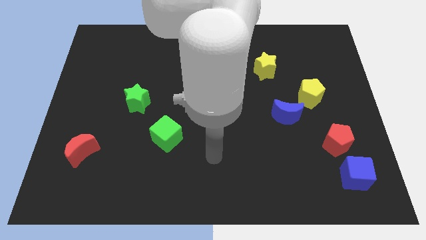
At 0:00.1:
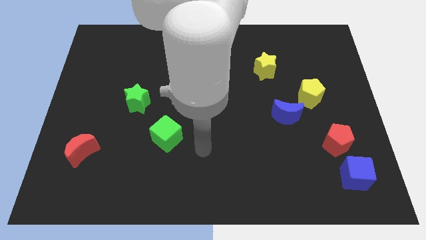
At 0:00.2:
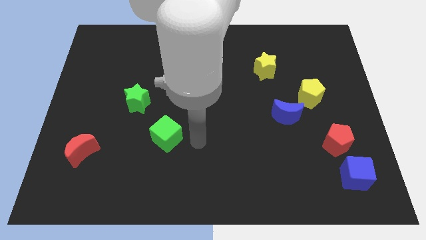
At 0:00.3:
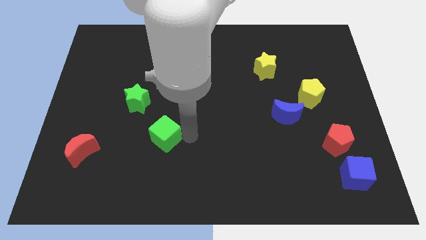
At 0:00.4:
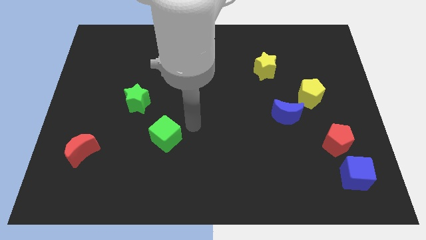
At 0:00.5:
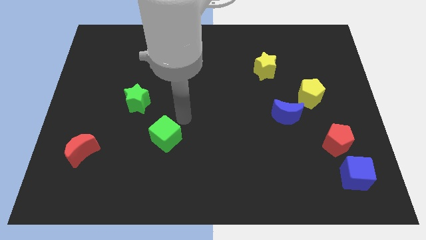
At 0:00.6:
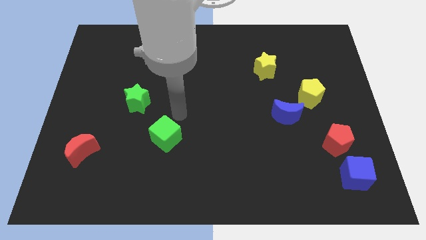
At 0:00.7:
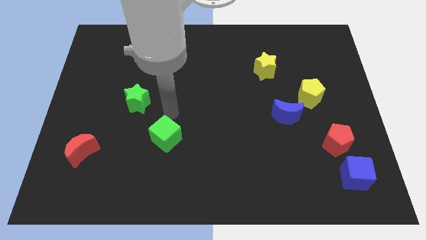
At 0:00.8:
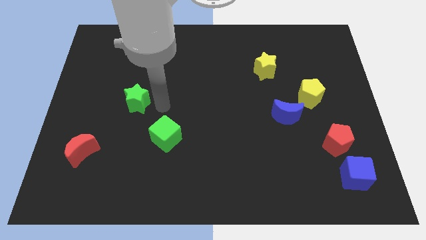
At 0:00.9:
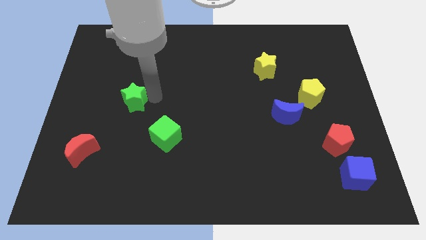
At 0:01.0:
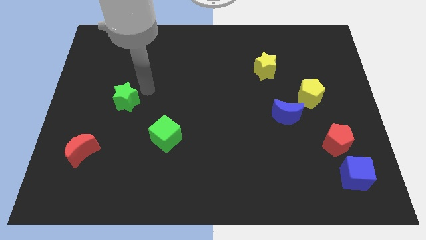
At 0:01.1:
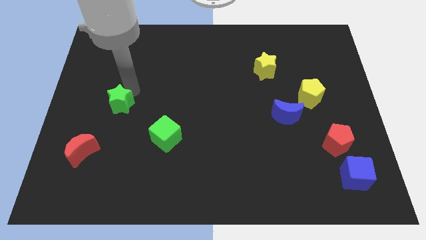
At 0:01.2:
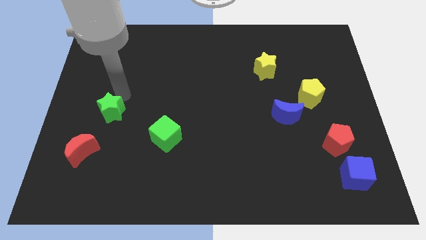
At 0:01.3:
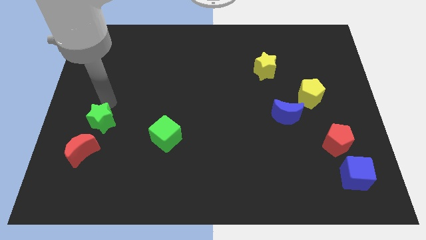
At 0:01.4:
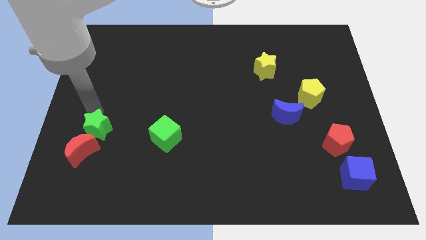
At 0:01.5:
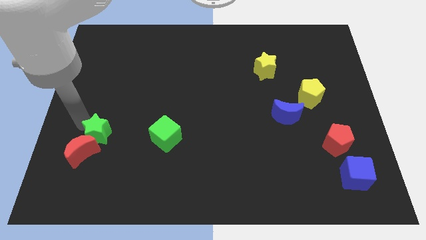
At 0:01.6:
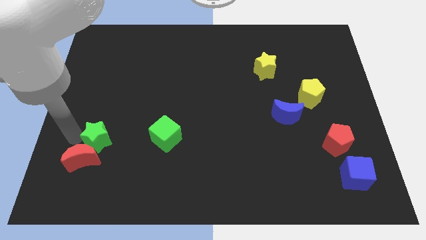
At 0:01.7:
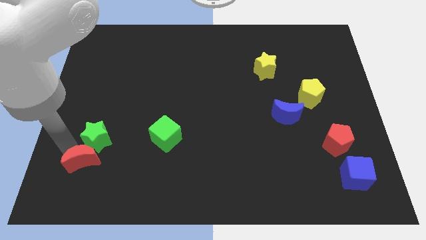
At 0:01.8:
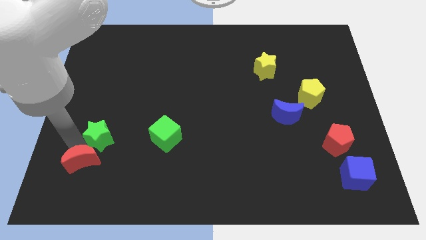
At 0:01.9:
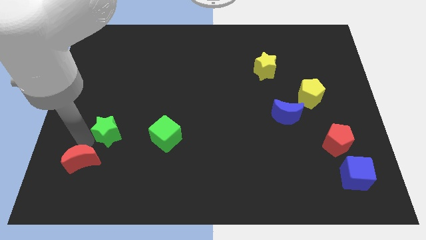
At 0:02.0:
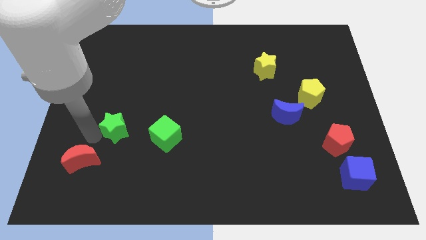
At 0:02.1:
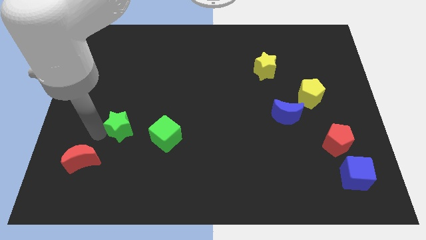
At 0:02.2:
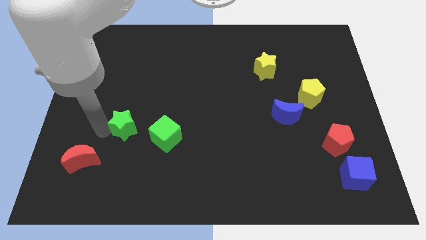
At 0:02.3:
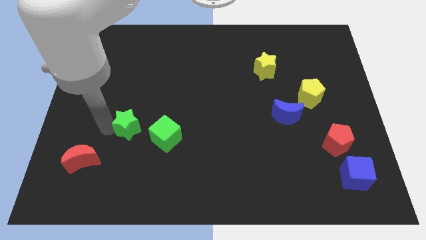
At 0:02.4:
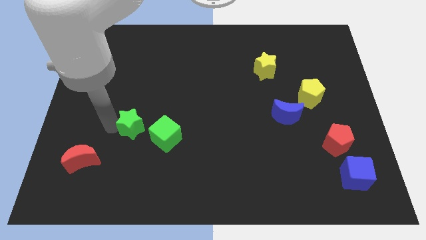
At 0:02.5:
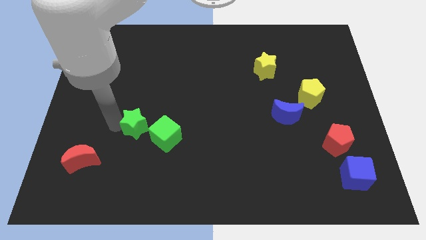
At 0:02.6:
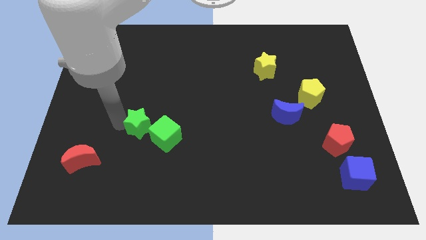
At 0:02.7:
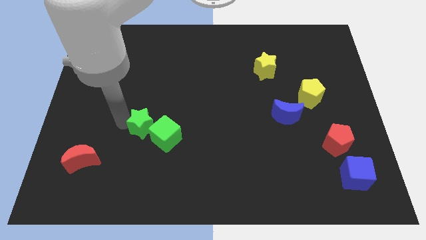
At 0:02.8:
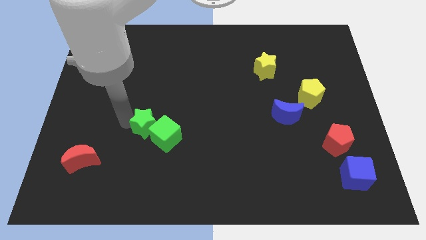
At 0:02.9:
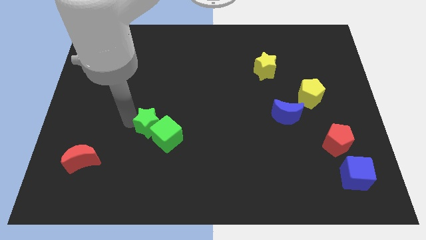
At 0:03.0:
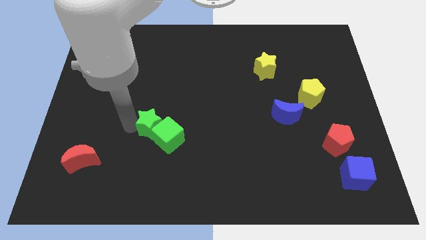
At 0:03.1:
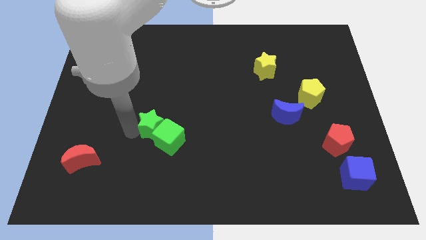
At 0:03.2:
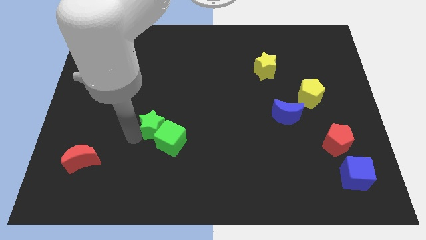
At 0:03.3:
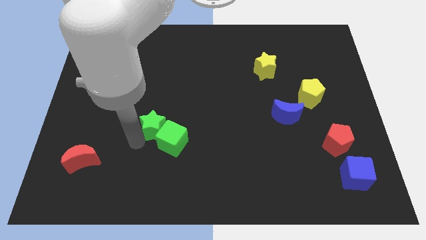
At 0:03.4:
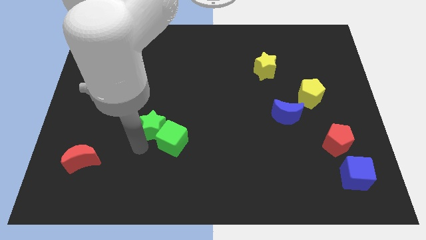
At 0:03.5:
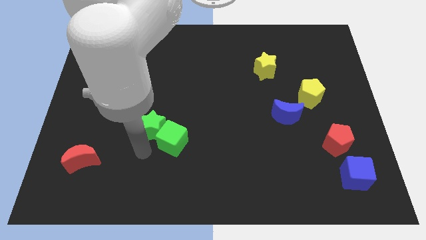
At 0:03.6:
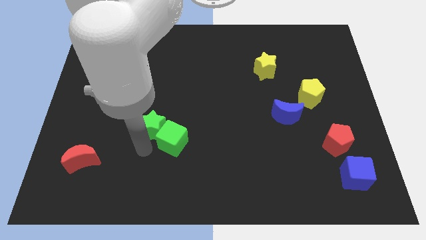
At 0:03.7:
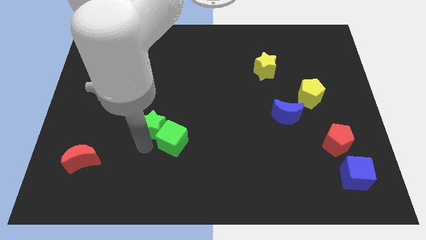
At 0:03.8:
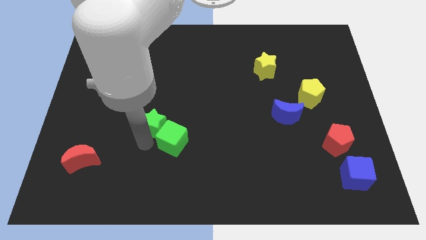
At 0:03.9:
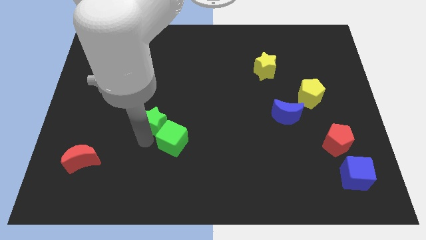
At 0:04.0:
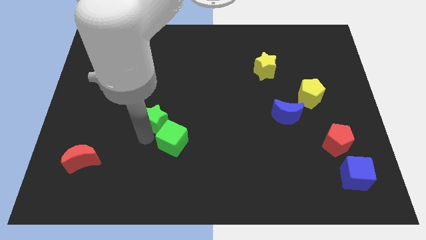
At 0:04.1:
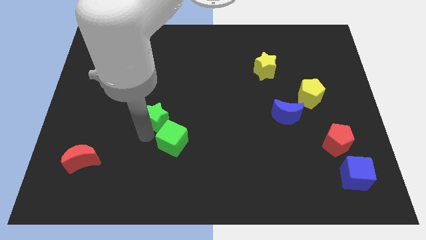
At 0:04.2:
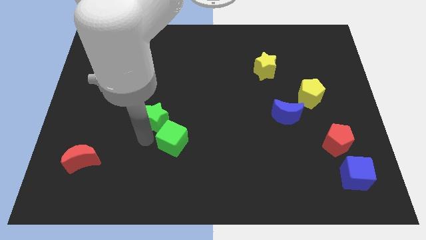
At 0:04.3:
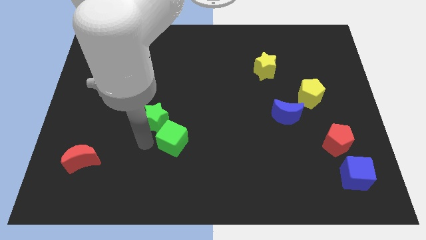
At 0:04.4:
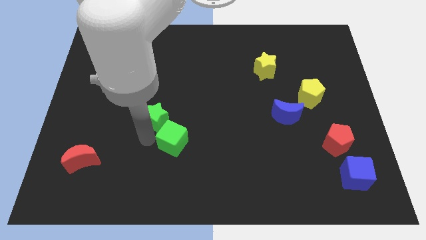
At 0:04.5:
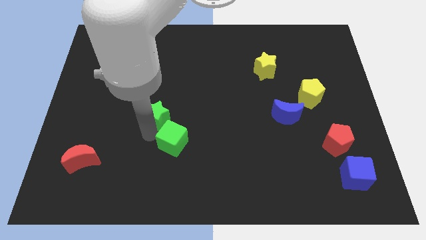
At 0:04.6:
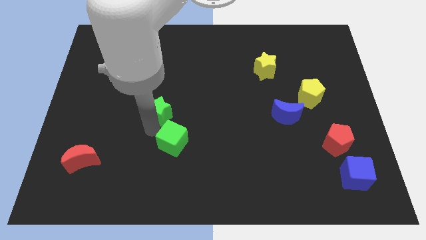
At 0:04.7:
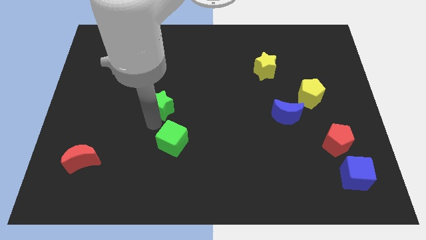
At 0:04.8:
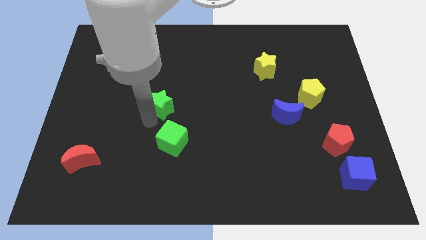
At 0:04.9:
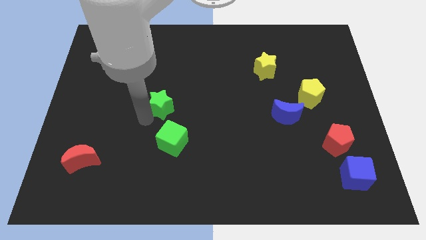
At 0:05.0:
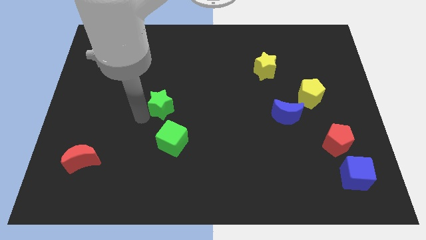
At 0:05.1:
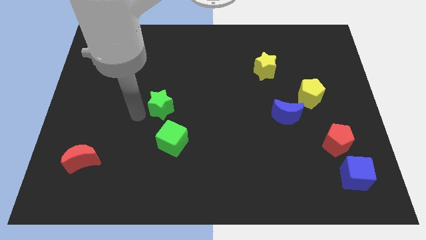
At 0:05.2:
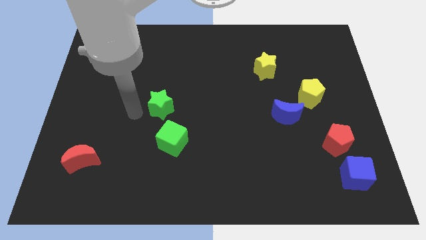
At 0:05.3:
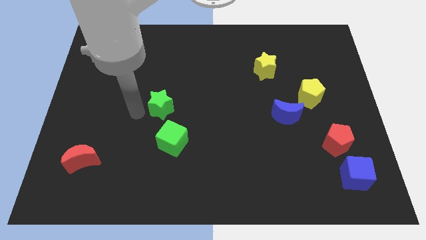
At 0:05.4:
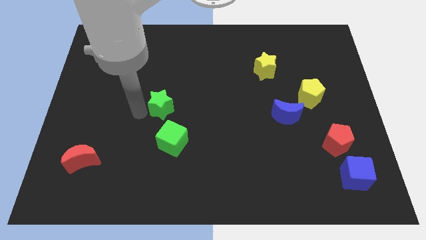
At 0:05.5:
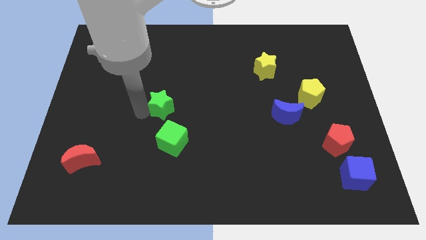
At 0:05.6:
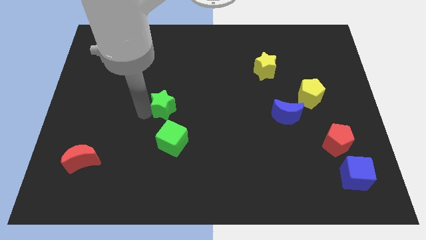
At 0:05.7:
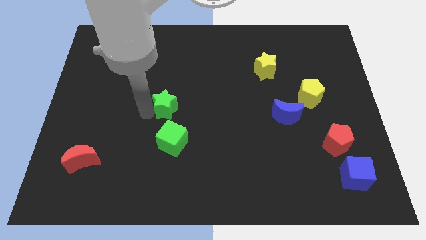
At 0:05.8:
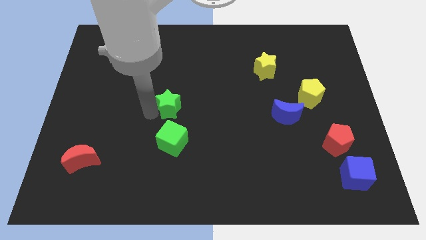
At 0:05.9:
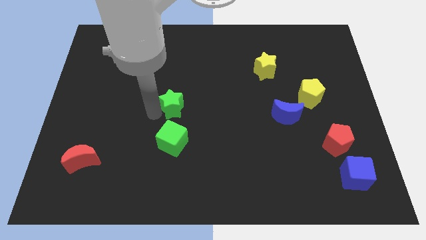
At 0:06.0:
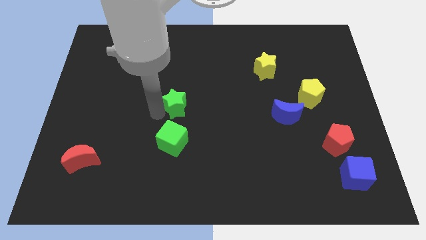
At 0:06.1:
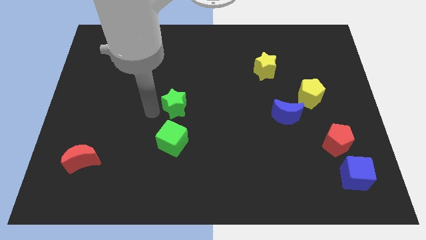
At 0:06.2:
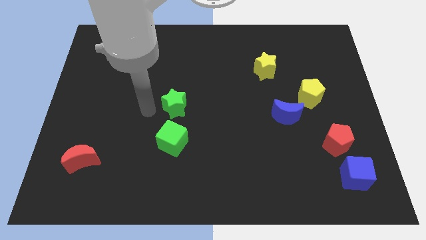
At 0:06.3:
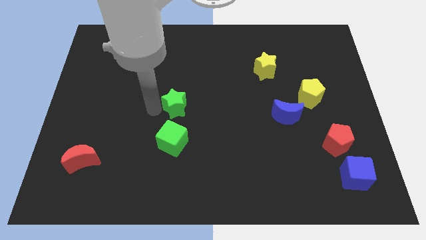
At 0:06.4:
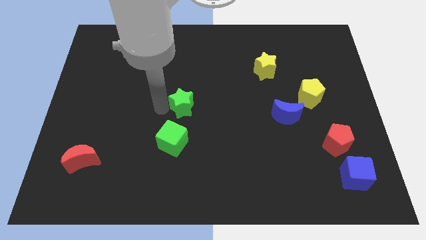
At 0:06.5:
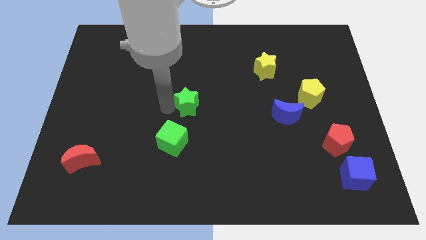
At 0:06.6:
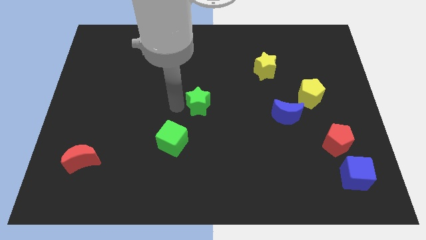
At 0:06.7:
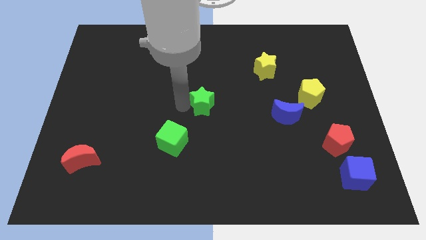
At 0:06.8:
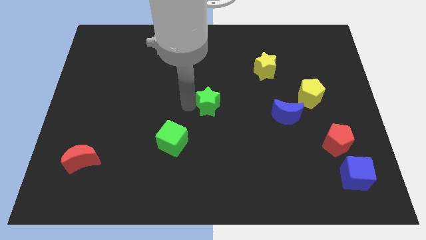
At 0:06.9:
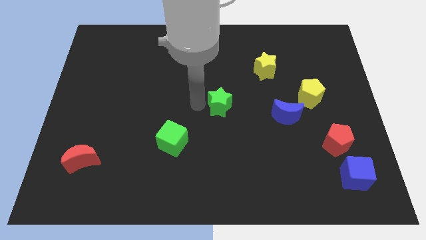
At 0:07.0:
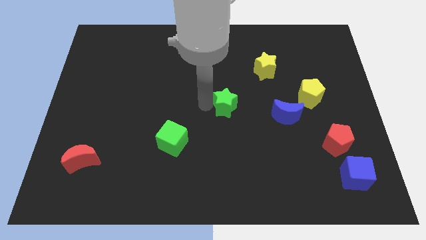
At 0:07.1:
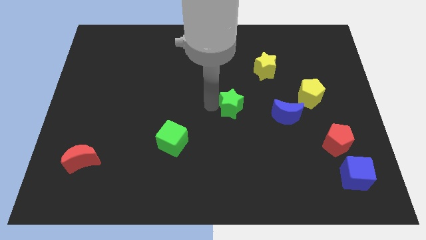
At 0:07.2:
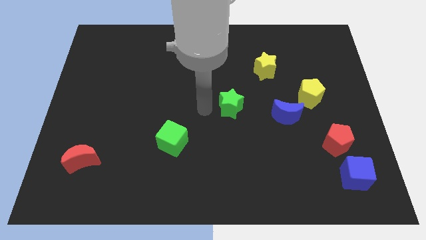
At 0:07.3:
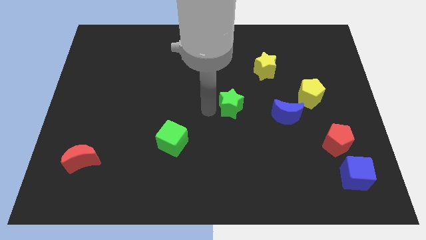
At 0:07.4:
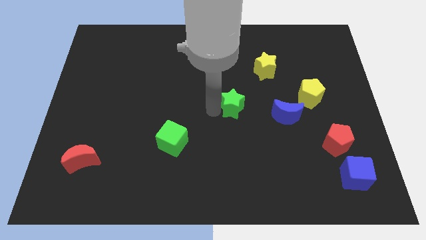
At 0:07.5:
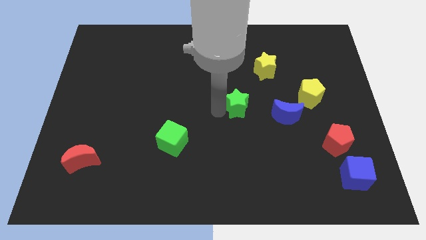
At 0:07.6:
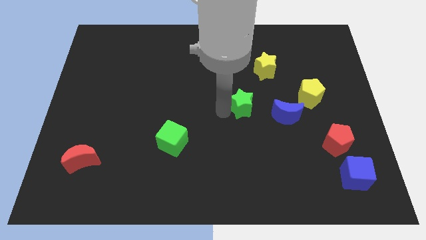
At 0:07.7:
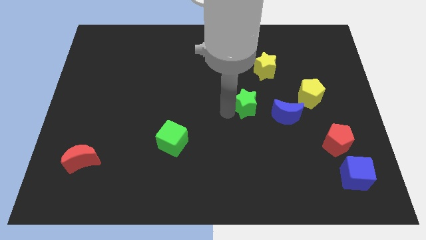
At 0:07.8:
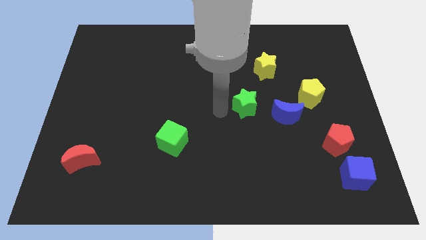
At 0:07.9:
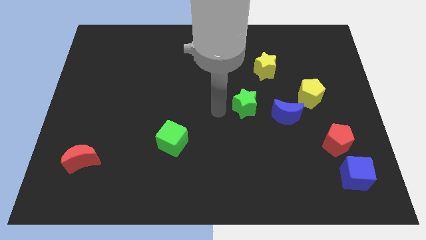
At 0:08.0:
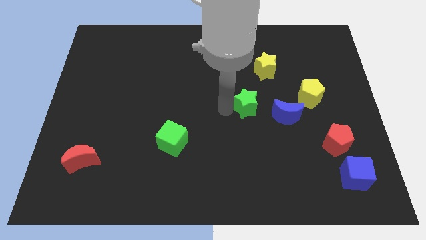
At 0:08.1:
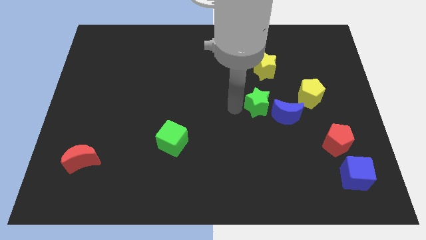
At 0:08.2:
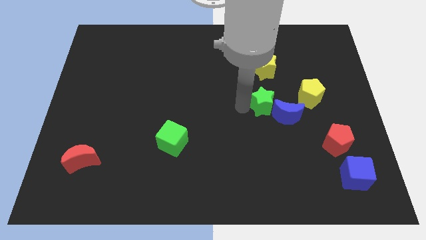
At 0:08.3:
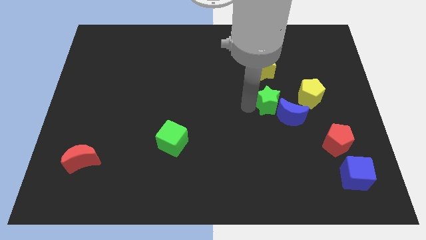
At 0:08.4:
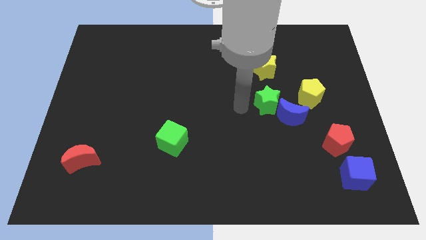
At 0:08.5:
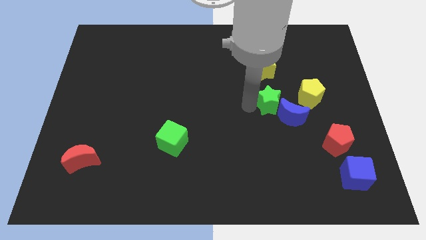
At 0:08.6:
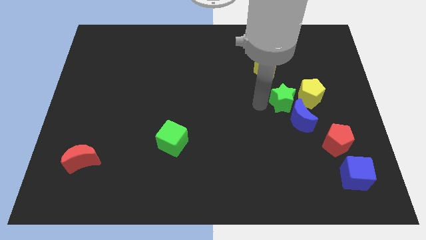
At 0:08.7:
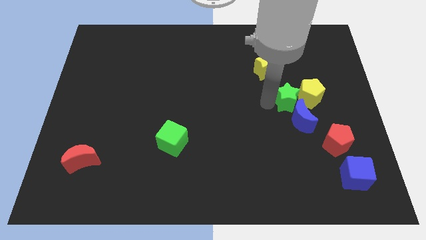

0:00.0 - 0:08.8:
push the green star close to the yellow pentagon
